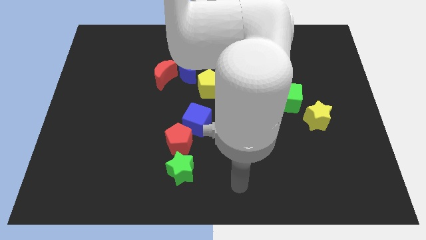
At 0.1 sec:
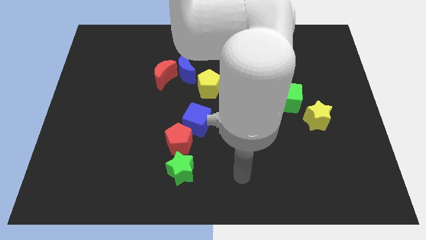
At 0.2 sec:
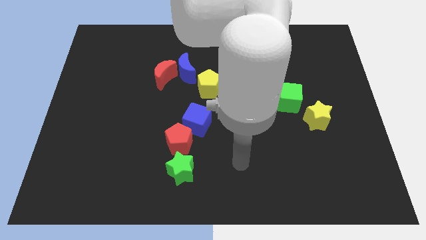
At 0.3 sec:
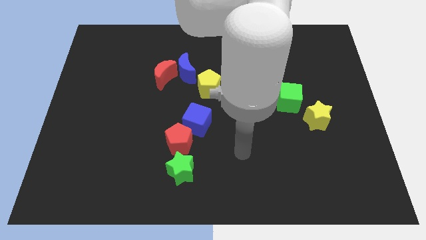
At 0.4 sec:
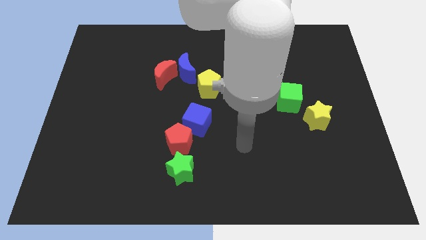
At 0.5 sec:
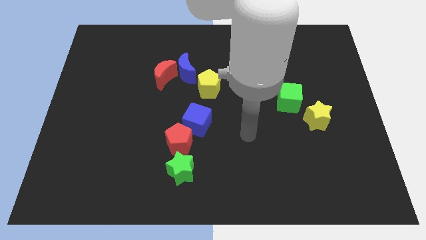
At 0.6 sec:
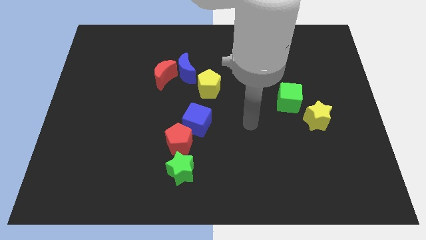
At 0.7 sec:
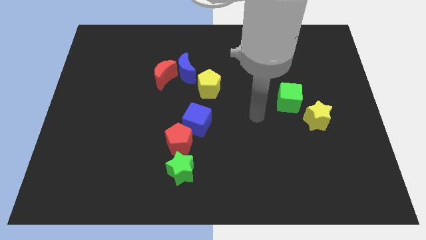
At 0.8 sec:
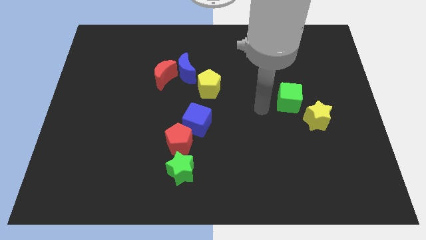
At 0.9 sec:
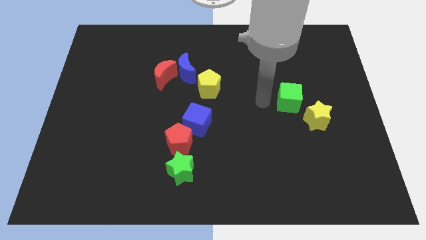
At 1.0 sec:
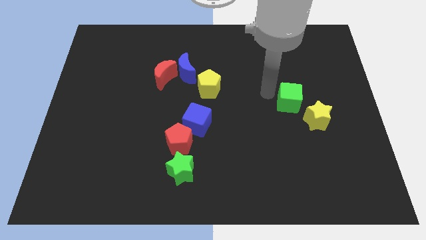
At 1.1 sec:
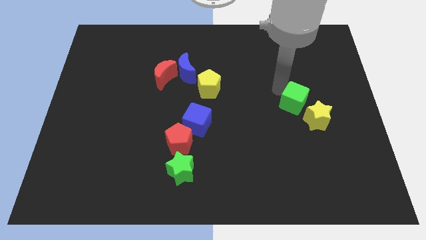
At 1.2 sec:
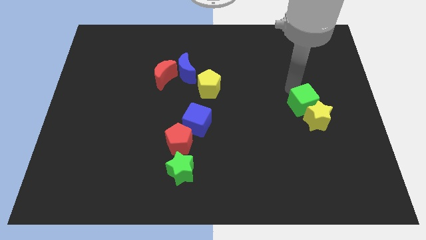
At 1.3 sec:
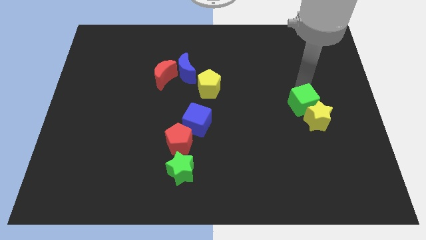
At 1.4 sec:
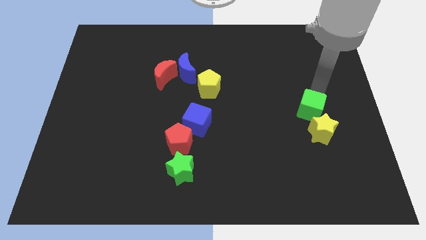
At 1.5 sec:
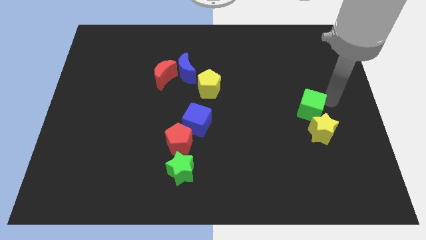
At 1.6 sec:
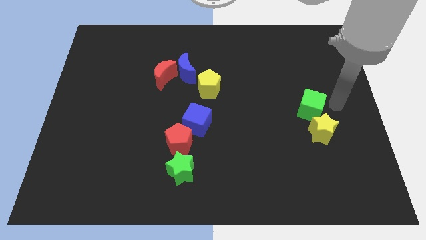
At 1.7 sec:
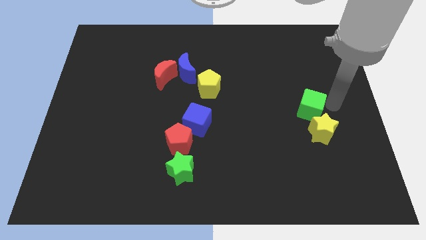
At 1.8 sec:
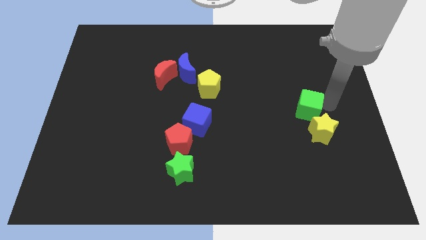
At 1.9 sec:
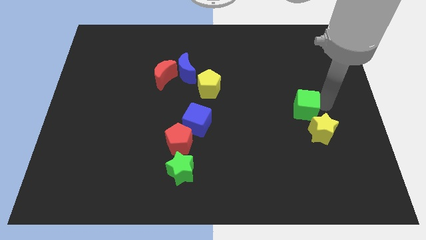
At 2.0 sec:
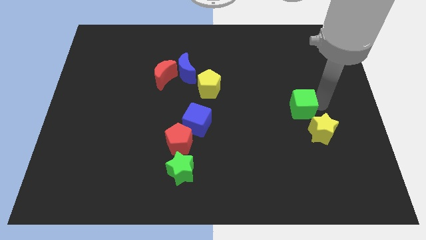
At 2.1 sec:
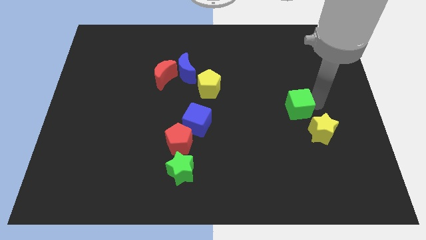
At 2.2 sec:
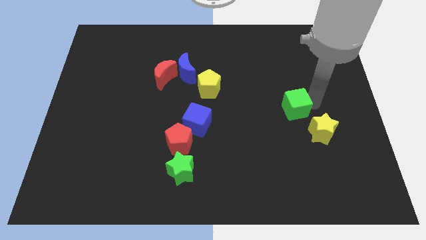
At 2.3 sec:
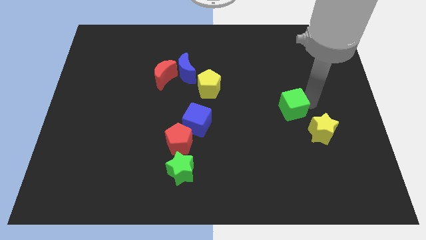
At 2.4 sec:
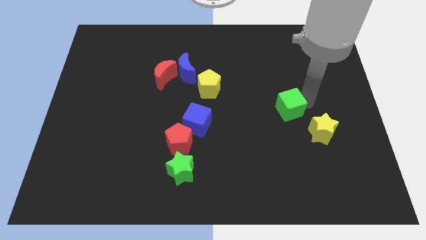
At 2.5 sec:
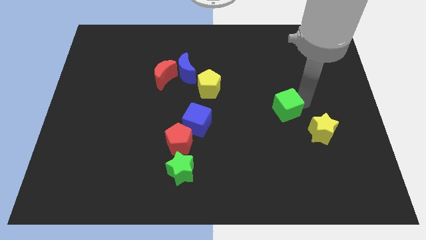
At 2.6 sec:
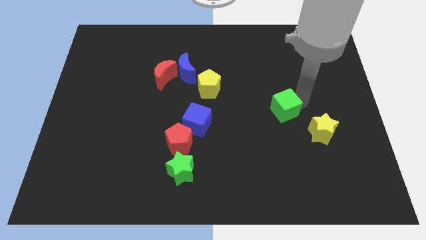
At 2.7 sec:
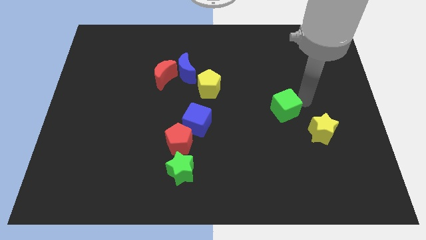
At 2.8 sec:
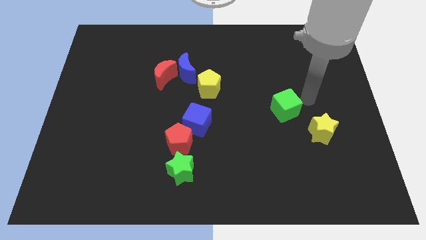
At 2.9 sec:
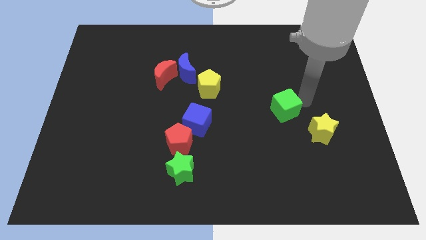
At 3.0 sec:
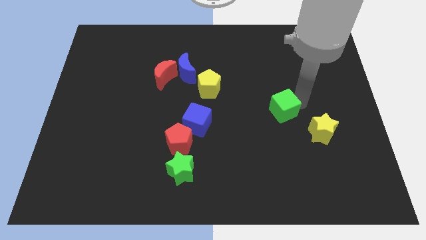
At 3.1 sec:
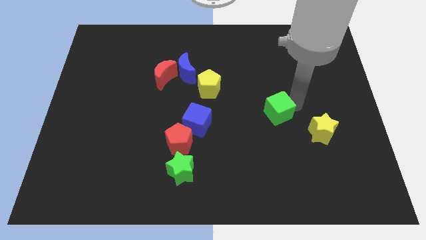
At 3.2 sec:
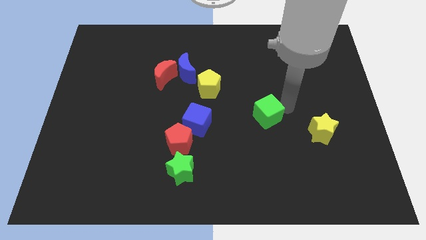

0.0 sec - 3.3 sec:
push the green cube a little downwards and to the left

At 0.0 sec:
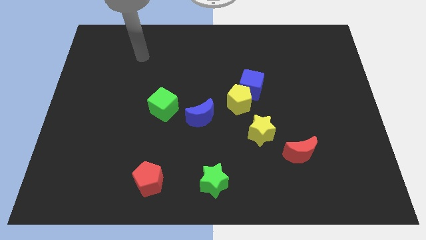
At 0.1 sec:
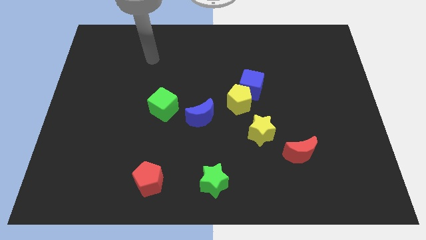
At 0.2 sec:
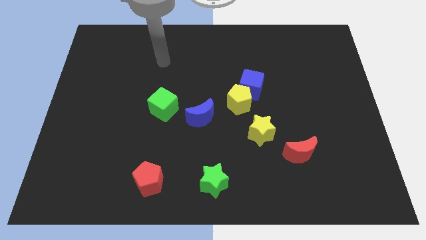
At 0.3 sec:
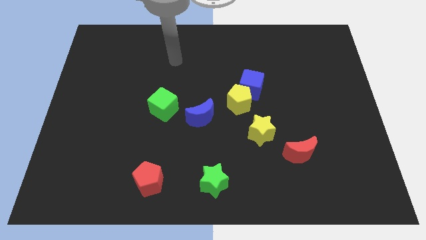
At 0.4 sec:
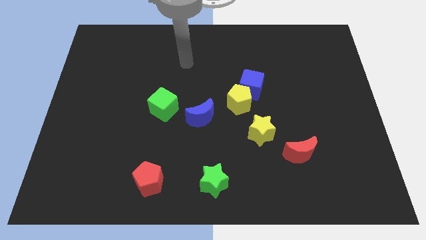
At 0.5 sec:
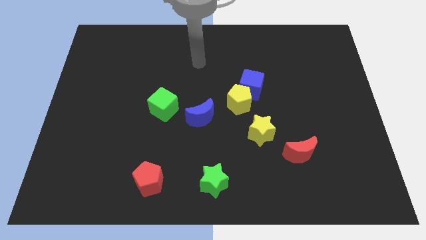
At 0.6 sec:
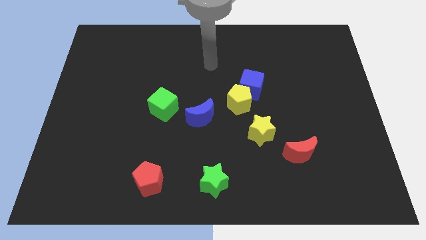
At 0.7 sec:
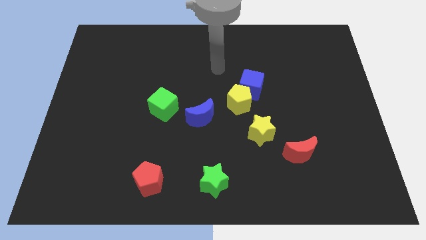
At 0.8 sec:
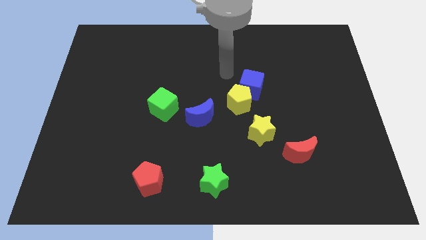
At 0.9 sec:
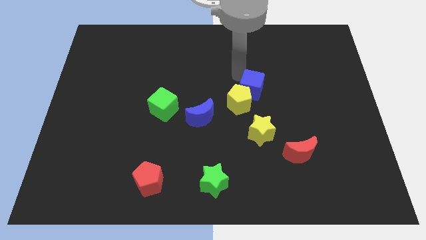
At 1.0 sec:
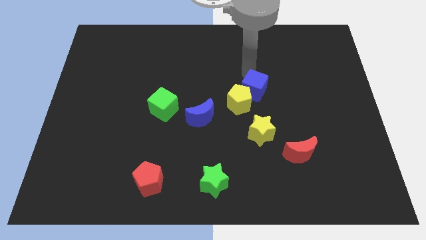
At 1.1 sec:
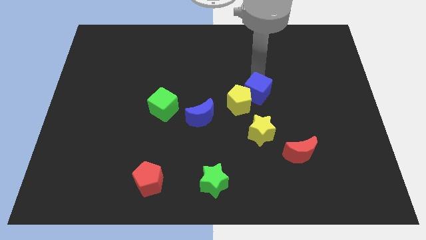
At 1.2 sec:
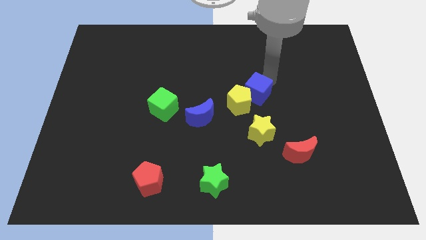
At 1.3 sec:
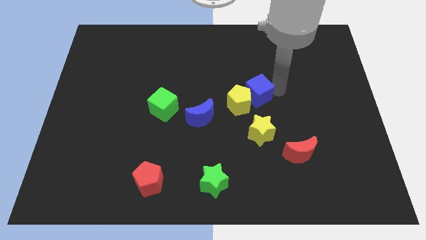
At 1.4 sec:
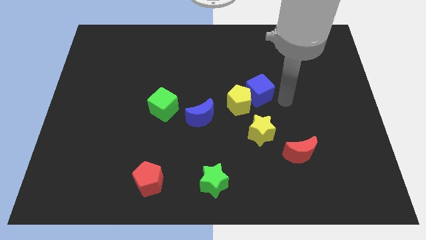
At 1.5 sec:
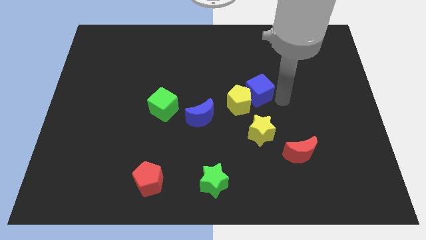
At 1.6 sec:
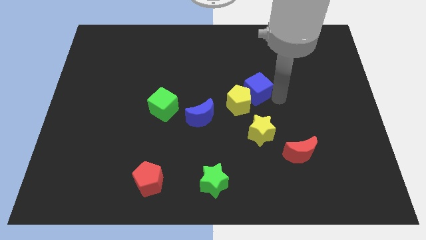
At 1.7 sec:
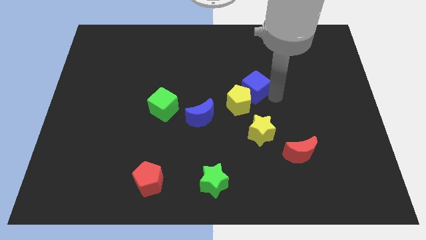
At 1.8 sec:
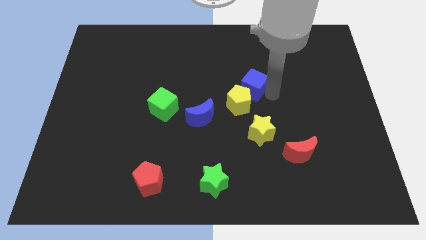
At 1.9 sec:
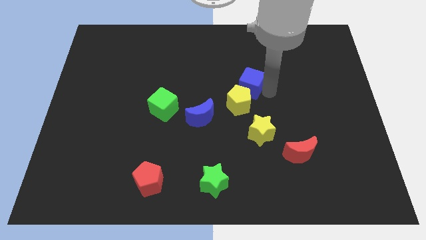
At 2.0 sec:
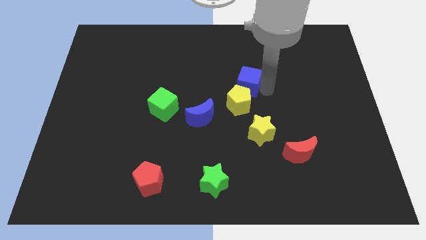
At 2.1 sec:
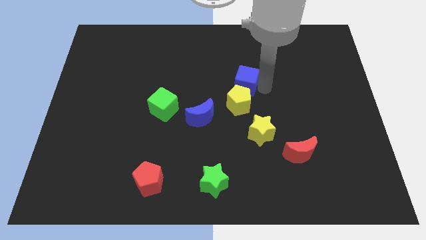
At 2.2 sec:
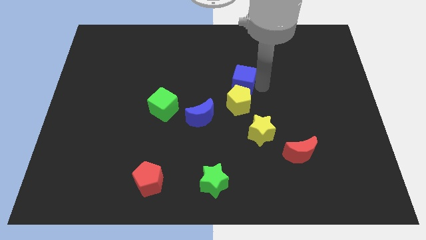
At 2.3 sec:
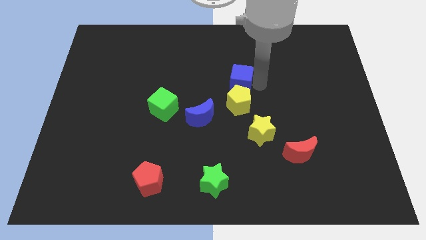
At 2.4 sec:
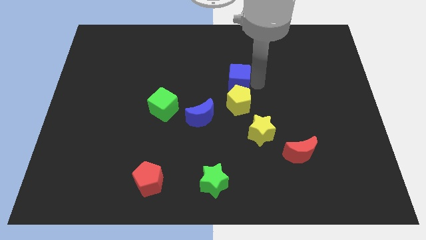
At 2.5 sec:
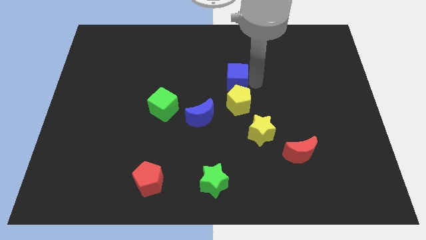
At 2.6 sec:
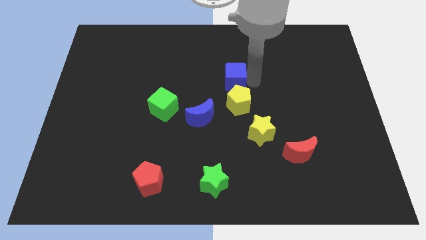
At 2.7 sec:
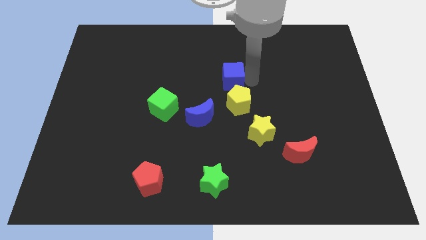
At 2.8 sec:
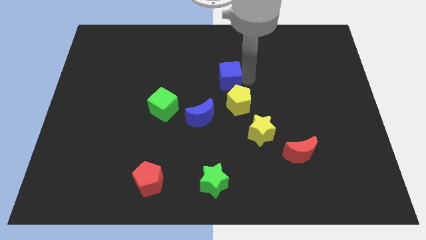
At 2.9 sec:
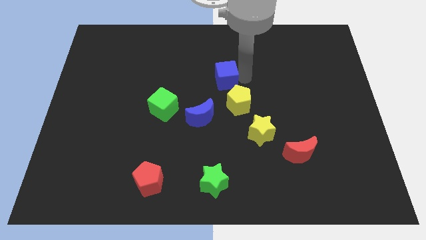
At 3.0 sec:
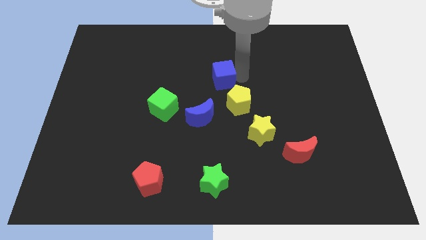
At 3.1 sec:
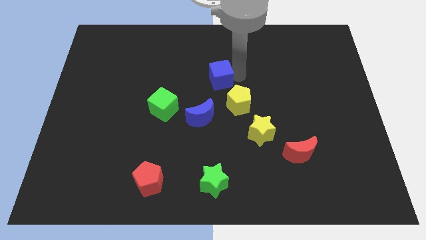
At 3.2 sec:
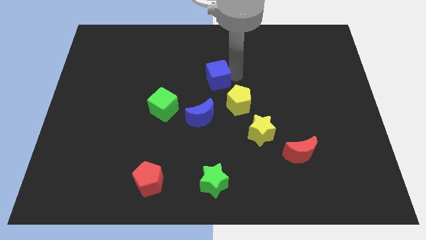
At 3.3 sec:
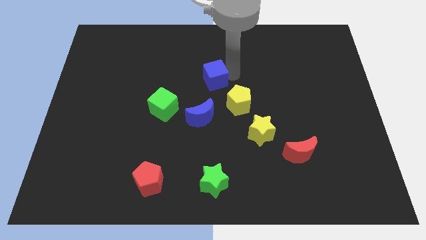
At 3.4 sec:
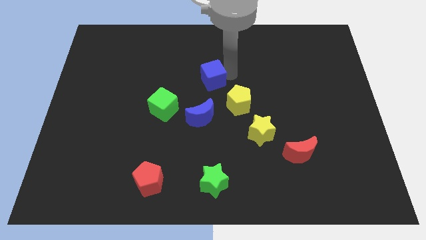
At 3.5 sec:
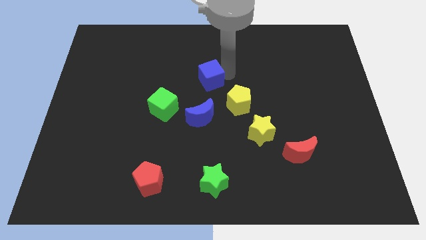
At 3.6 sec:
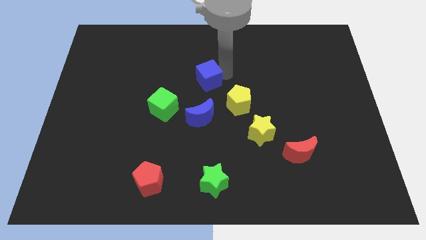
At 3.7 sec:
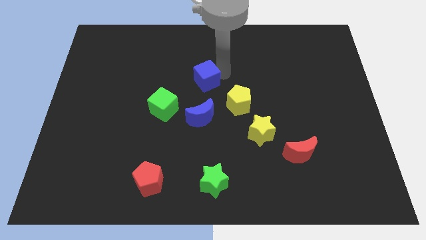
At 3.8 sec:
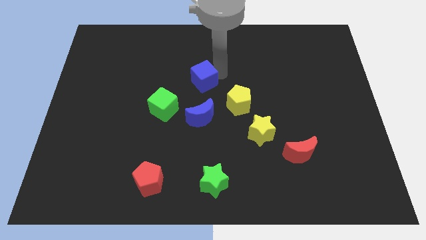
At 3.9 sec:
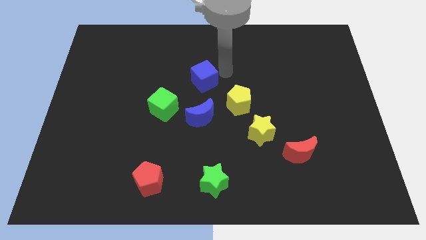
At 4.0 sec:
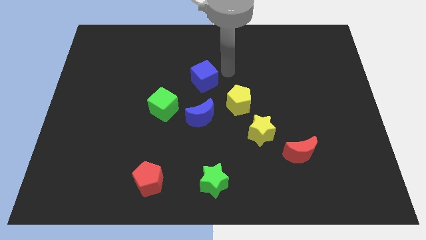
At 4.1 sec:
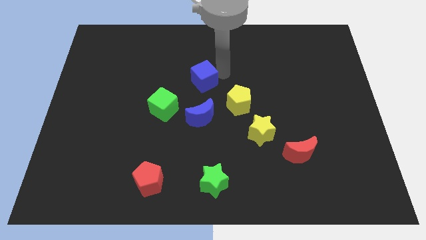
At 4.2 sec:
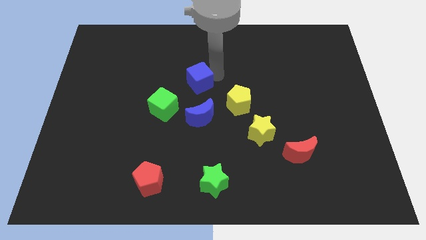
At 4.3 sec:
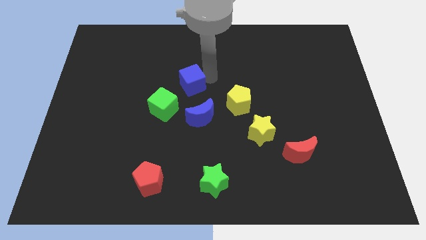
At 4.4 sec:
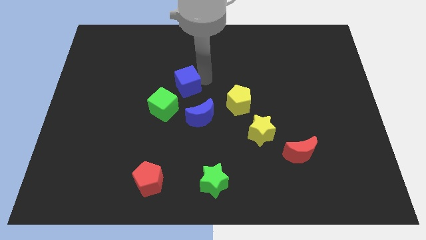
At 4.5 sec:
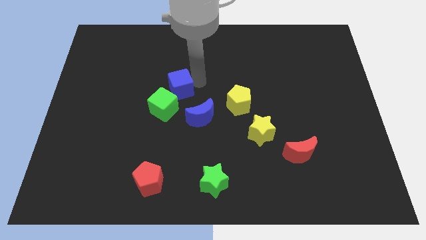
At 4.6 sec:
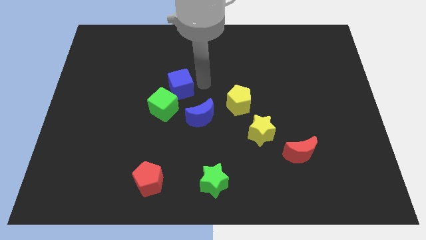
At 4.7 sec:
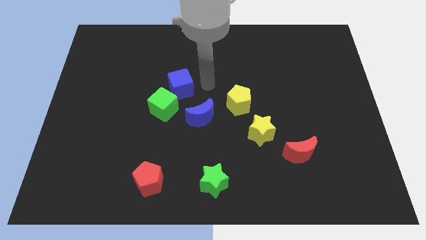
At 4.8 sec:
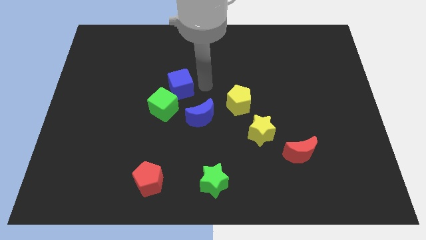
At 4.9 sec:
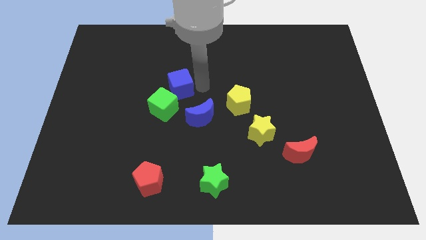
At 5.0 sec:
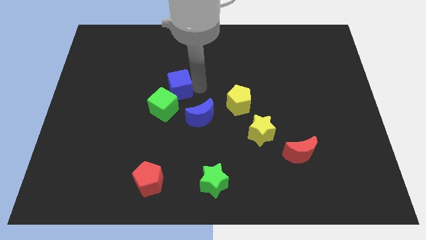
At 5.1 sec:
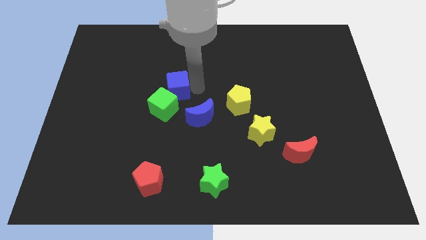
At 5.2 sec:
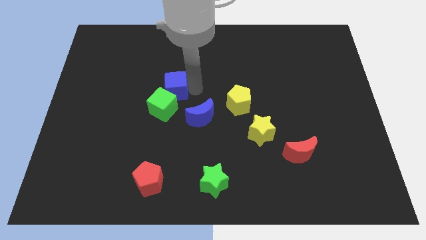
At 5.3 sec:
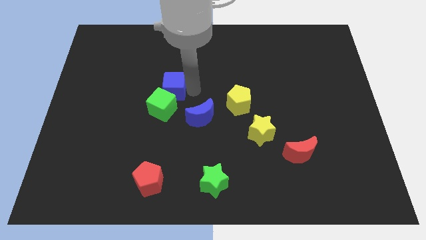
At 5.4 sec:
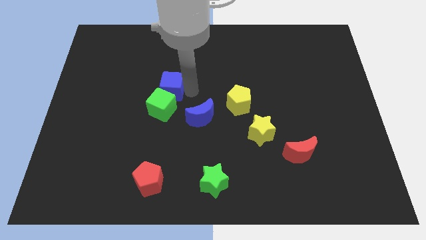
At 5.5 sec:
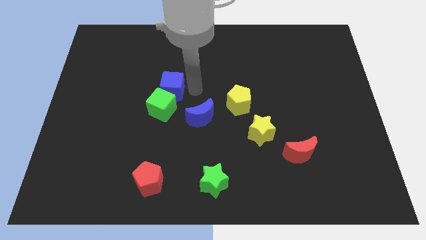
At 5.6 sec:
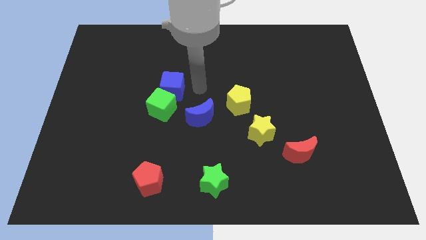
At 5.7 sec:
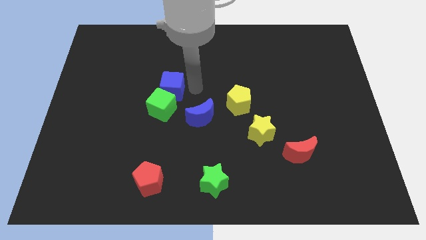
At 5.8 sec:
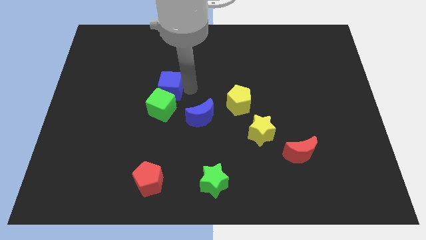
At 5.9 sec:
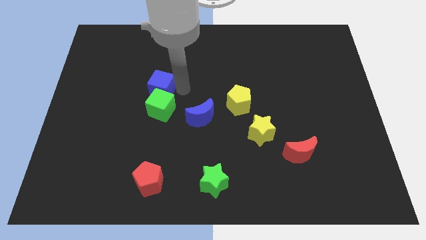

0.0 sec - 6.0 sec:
push the blue cube left
